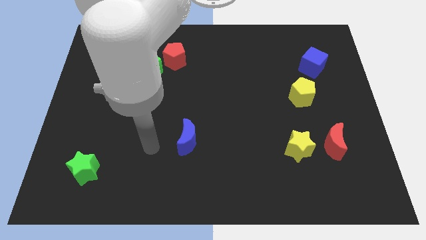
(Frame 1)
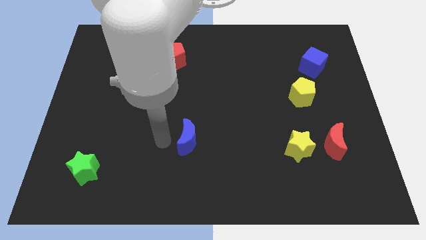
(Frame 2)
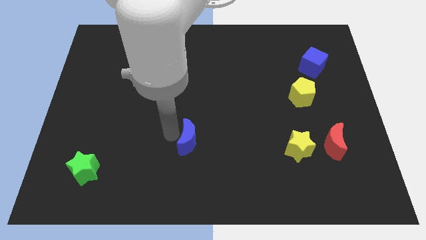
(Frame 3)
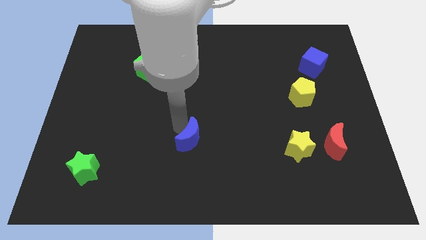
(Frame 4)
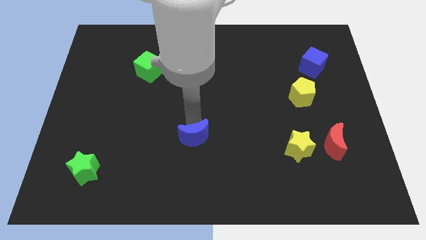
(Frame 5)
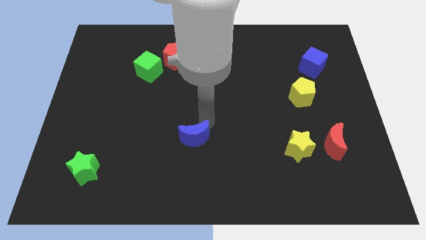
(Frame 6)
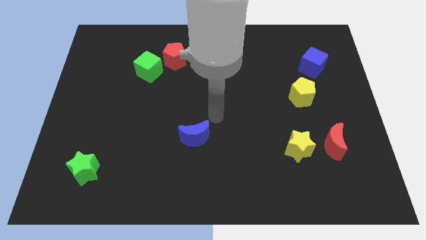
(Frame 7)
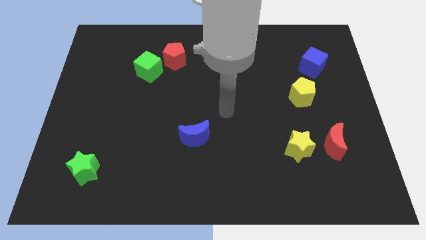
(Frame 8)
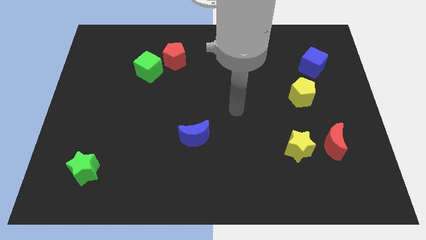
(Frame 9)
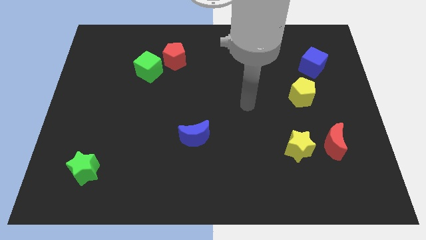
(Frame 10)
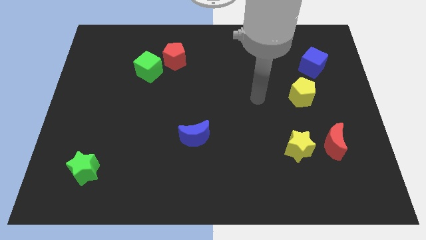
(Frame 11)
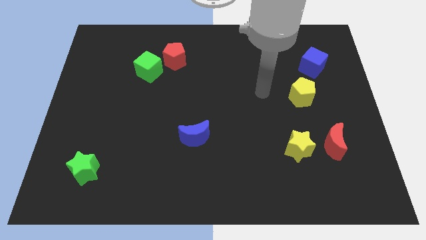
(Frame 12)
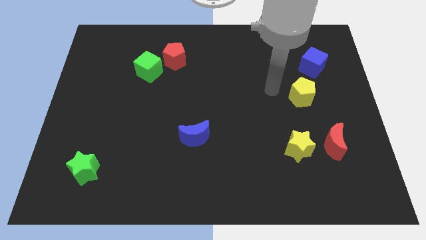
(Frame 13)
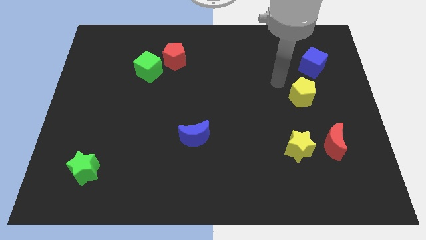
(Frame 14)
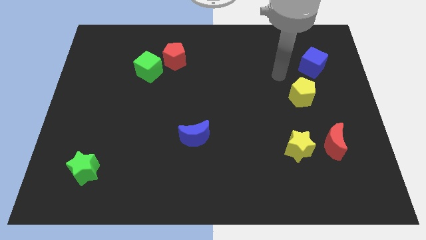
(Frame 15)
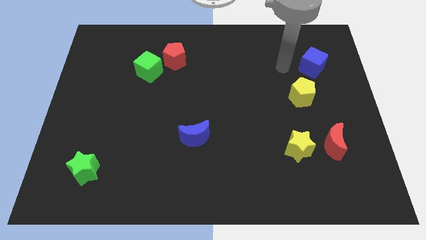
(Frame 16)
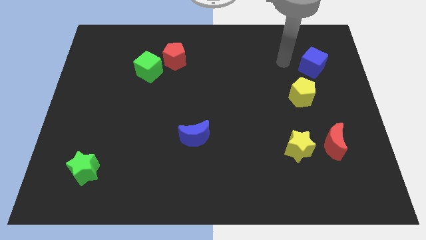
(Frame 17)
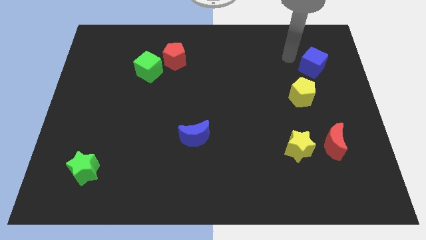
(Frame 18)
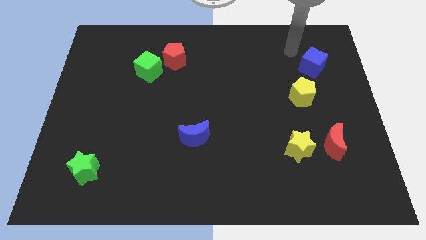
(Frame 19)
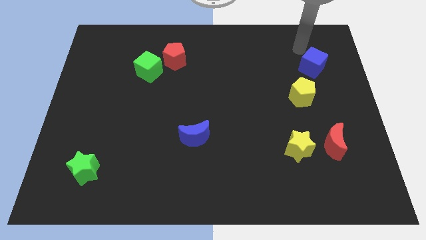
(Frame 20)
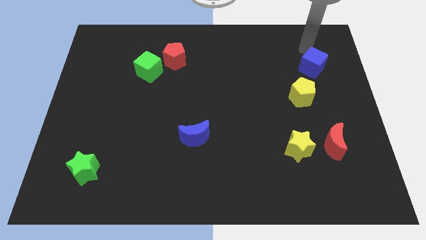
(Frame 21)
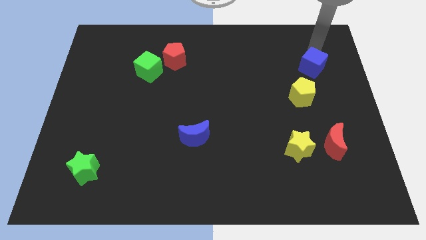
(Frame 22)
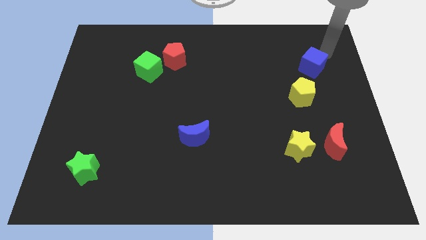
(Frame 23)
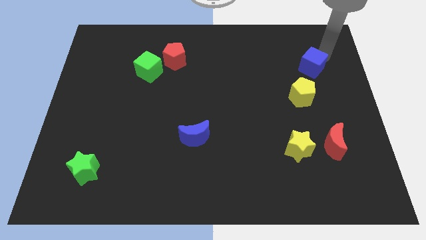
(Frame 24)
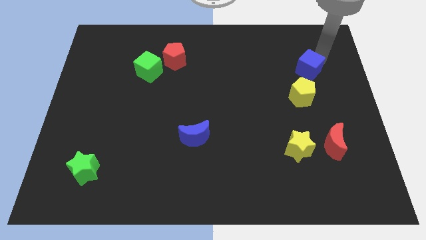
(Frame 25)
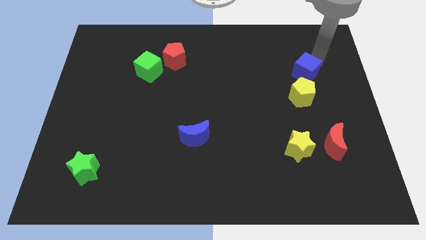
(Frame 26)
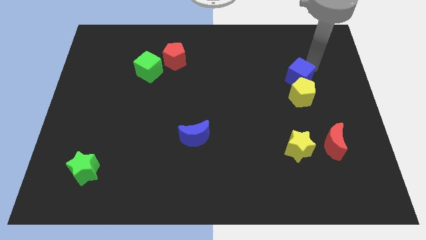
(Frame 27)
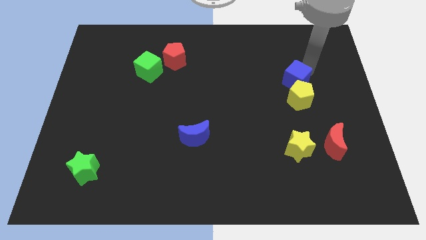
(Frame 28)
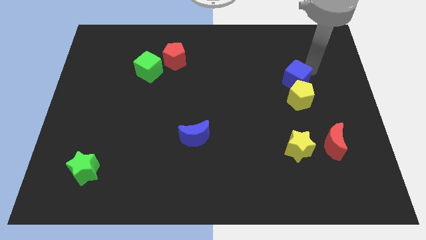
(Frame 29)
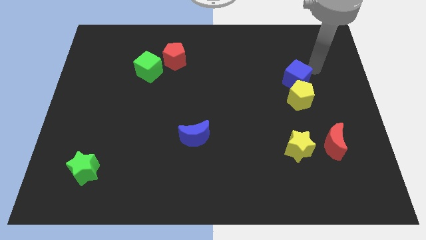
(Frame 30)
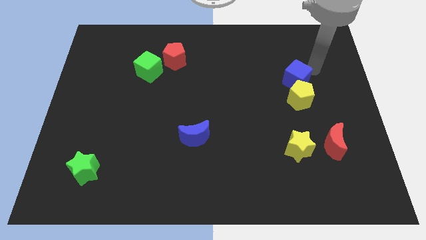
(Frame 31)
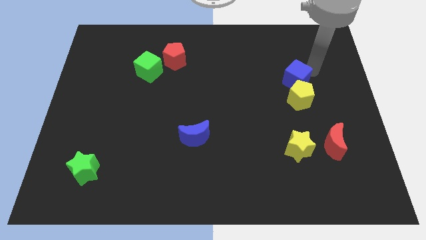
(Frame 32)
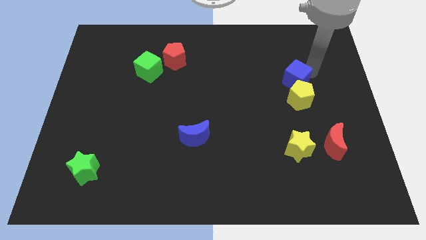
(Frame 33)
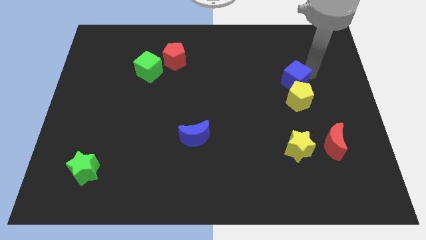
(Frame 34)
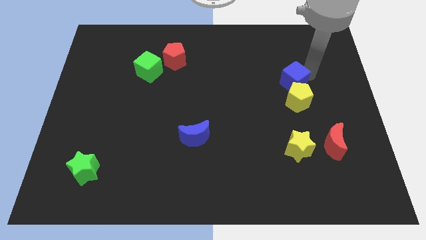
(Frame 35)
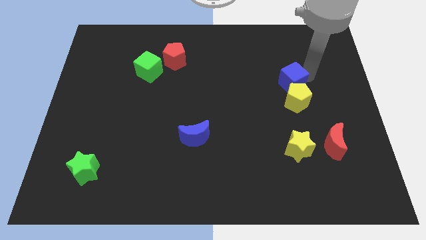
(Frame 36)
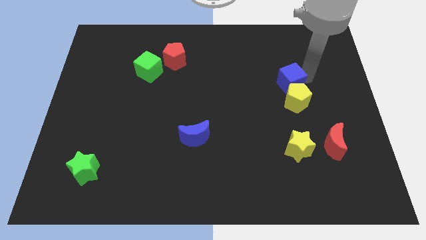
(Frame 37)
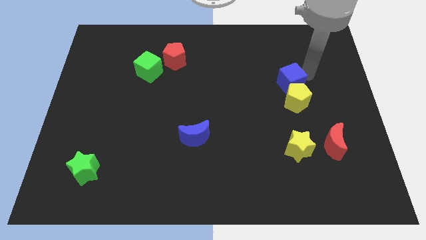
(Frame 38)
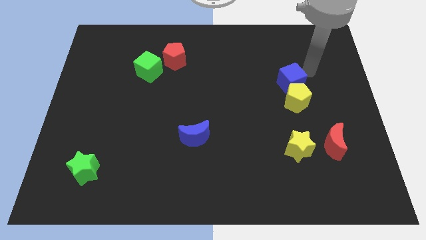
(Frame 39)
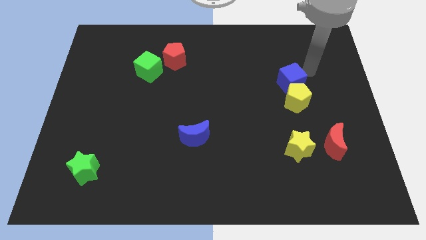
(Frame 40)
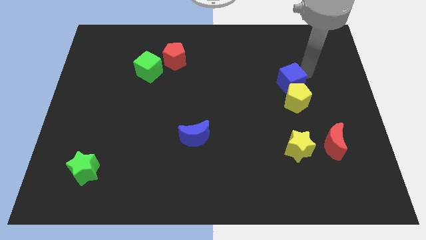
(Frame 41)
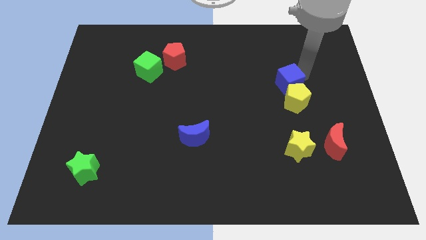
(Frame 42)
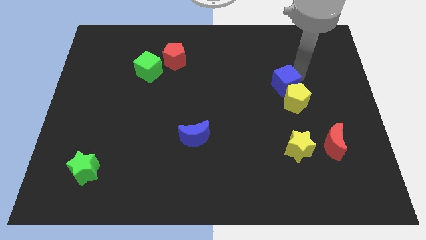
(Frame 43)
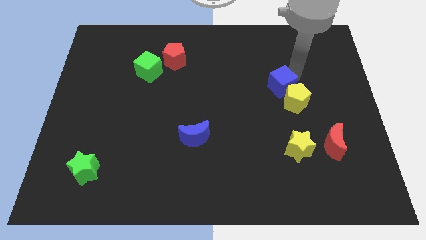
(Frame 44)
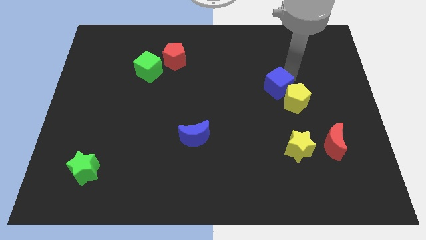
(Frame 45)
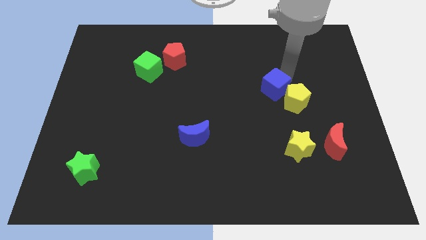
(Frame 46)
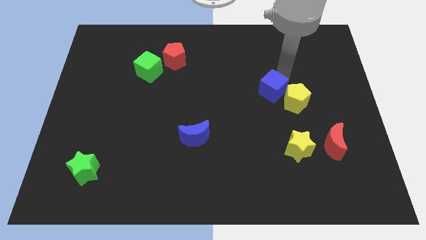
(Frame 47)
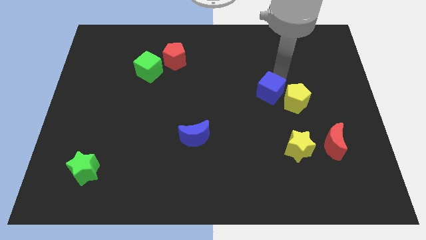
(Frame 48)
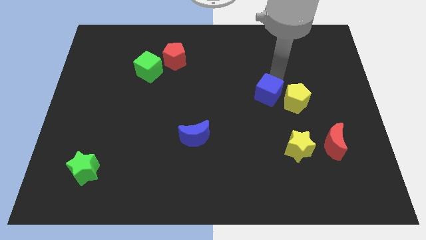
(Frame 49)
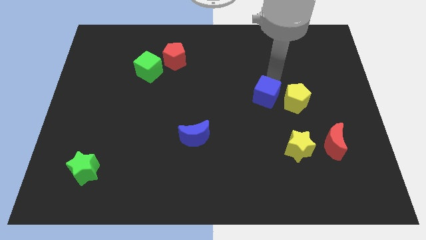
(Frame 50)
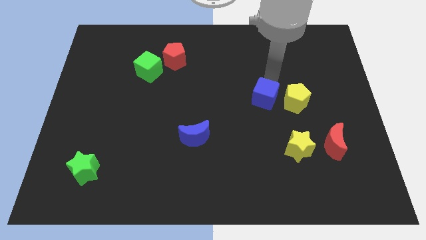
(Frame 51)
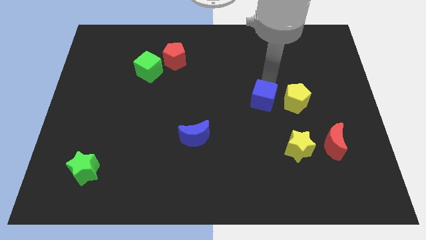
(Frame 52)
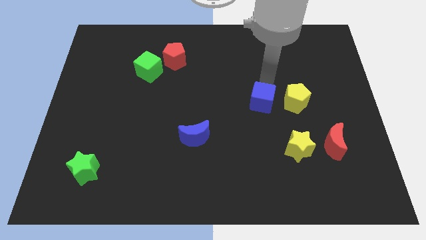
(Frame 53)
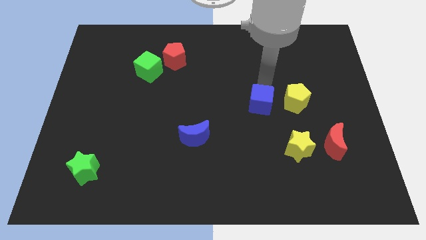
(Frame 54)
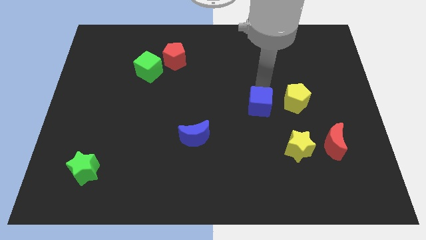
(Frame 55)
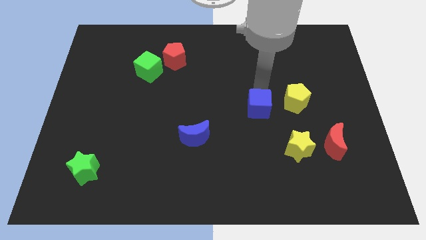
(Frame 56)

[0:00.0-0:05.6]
put the blue cube to the bottom left side of the yellow pentagon
